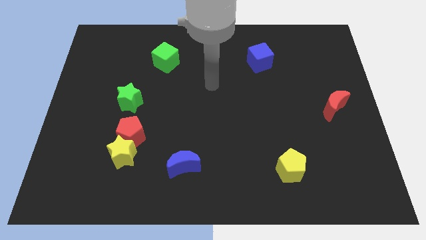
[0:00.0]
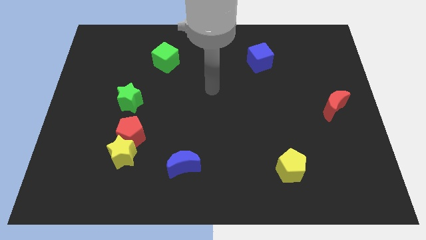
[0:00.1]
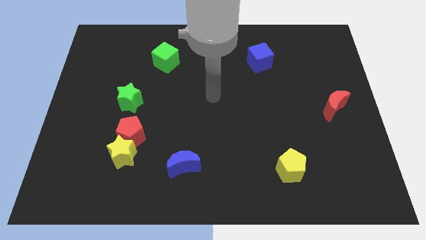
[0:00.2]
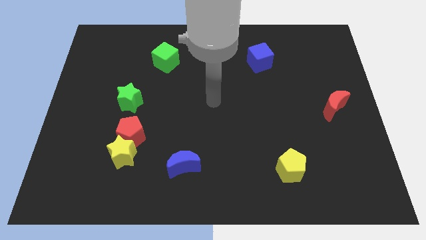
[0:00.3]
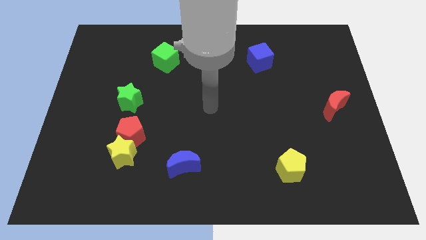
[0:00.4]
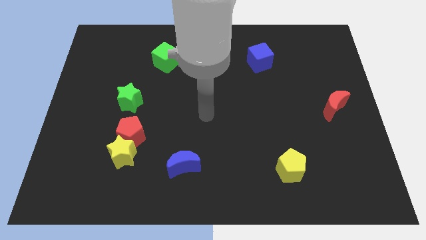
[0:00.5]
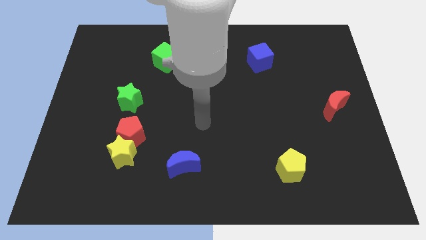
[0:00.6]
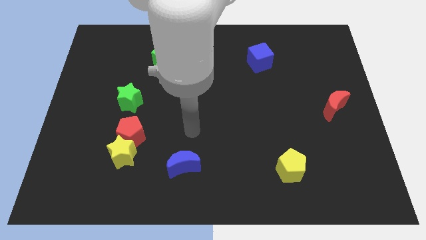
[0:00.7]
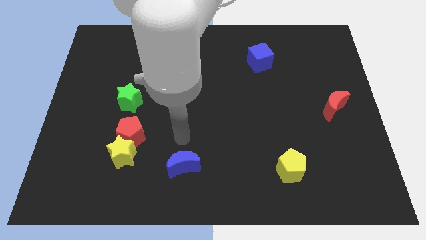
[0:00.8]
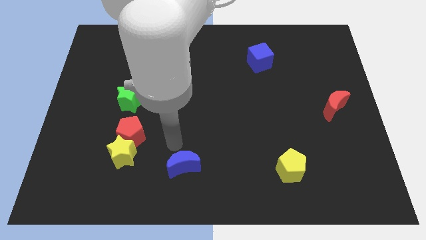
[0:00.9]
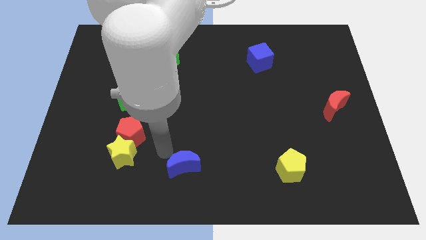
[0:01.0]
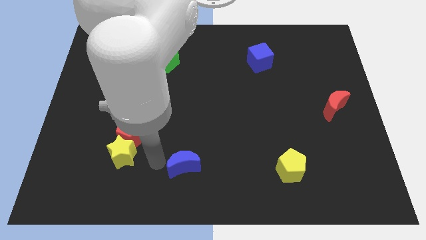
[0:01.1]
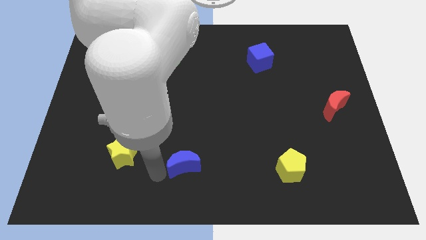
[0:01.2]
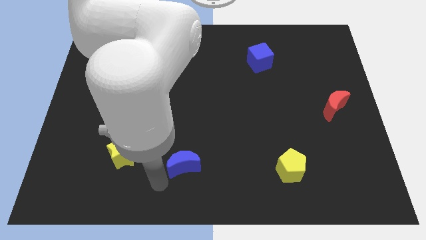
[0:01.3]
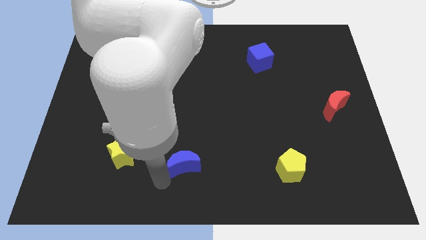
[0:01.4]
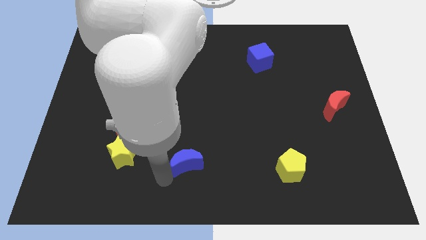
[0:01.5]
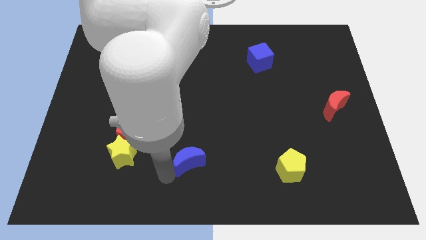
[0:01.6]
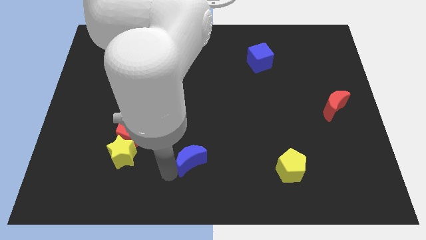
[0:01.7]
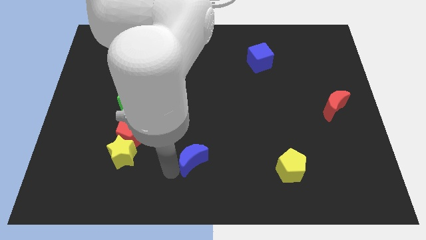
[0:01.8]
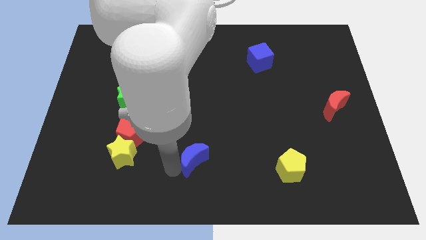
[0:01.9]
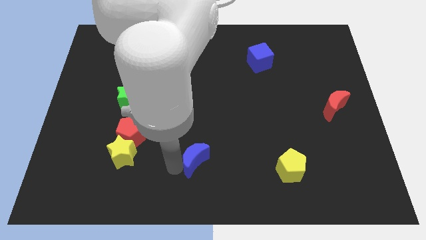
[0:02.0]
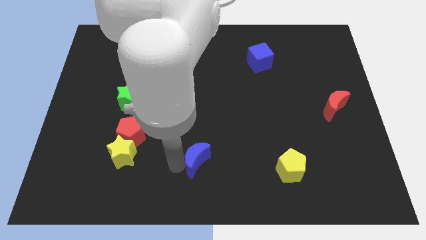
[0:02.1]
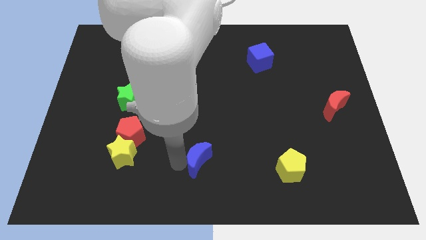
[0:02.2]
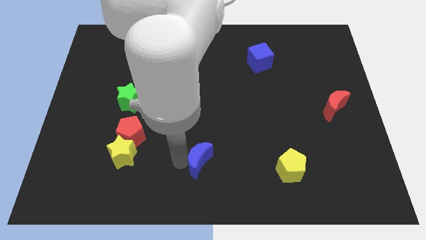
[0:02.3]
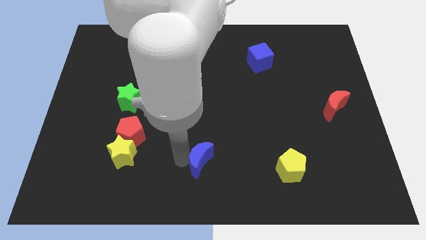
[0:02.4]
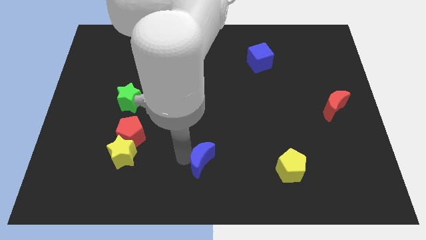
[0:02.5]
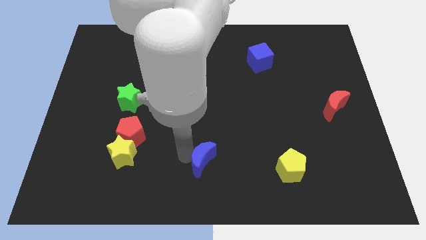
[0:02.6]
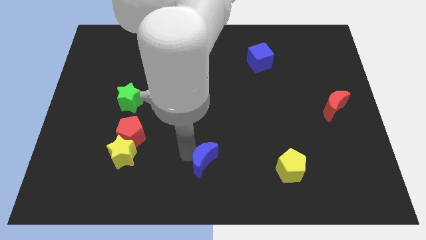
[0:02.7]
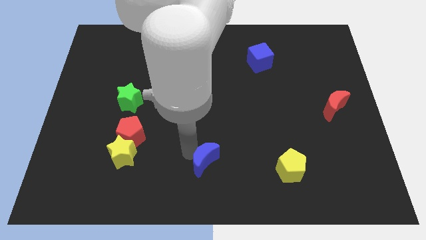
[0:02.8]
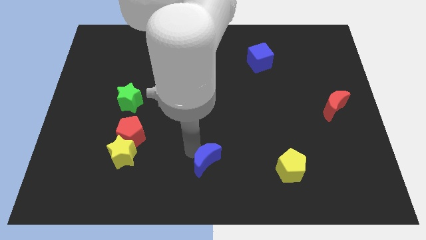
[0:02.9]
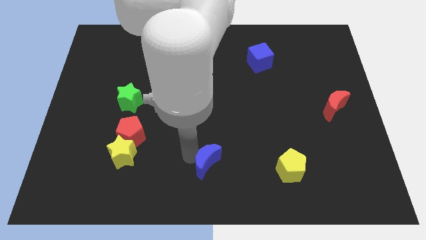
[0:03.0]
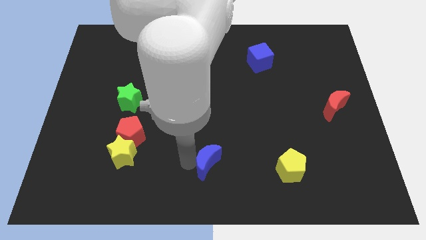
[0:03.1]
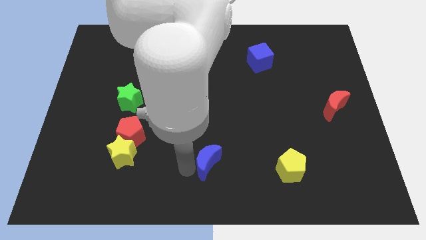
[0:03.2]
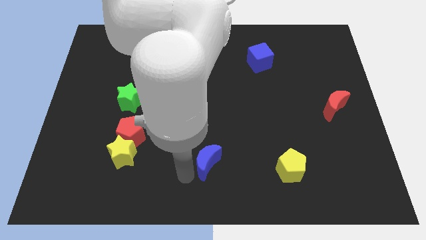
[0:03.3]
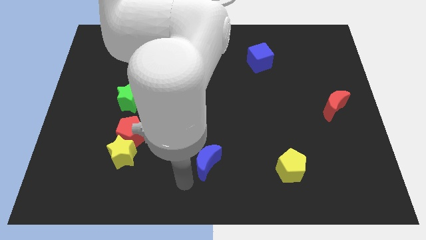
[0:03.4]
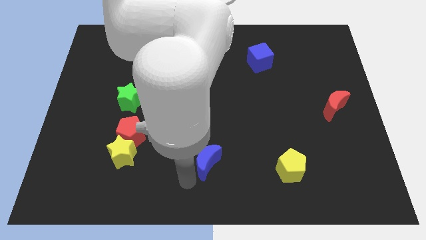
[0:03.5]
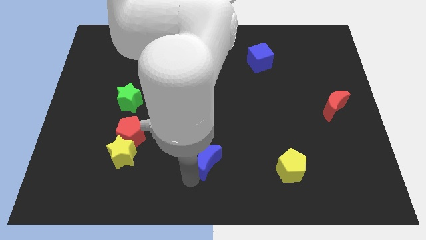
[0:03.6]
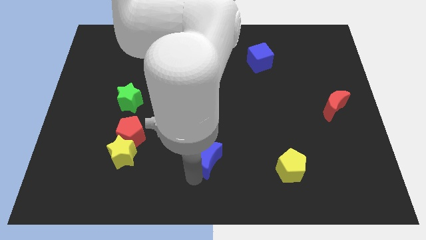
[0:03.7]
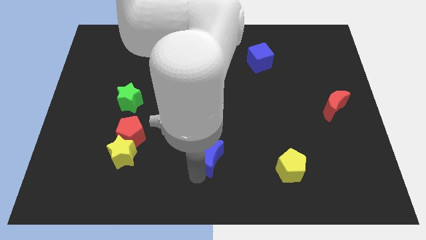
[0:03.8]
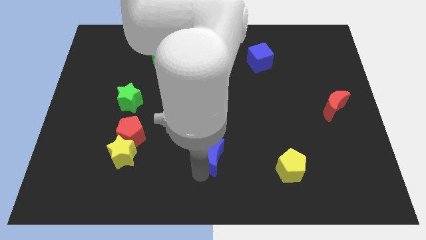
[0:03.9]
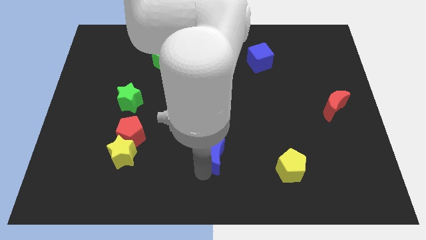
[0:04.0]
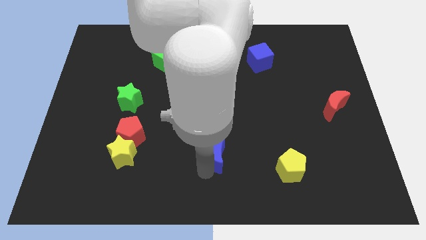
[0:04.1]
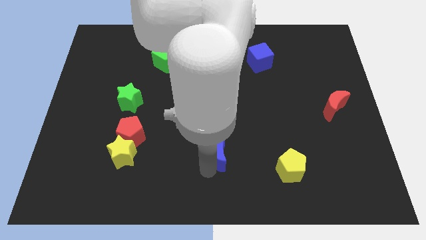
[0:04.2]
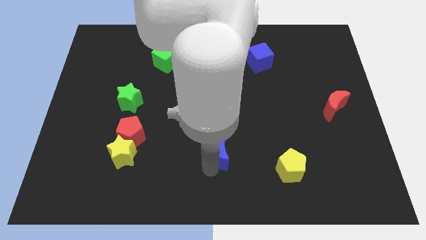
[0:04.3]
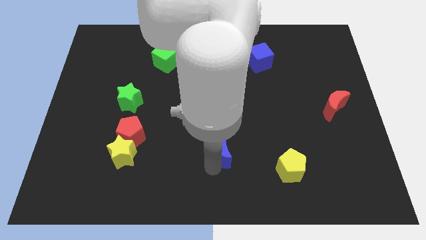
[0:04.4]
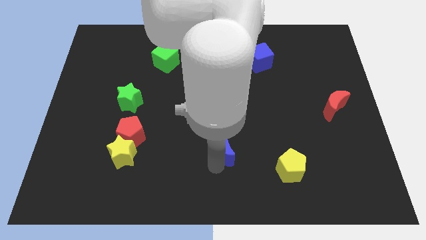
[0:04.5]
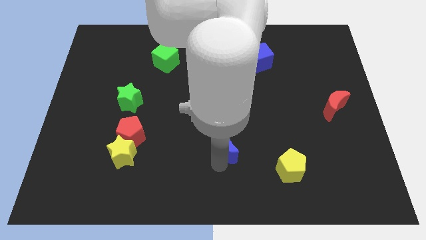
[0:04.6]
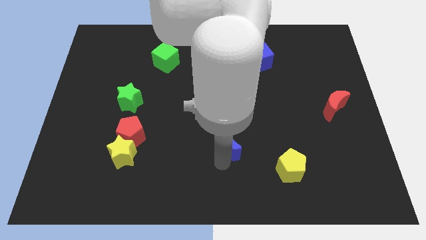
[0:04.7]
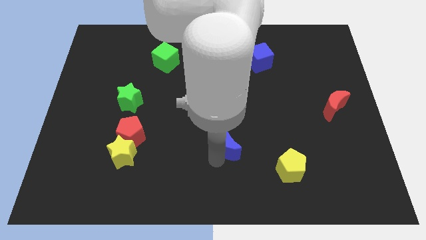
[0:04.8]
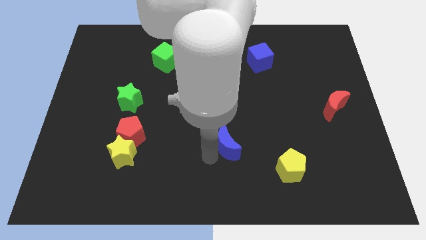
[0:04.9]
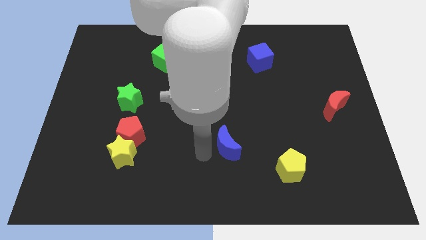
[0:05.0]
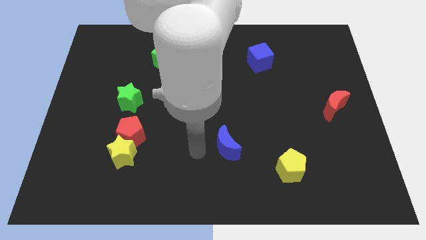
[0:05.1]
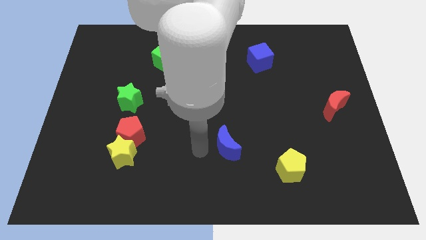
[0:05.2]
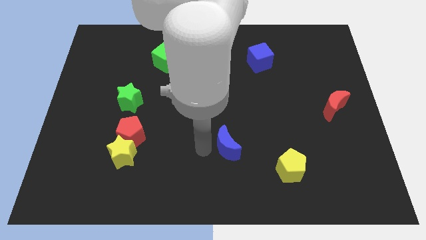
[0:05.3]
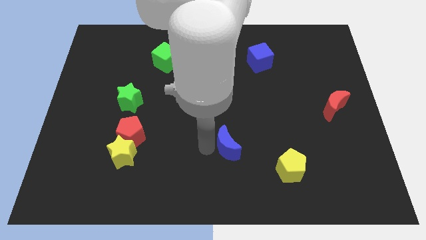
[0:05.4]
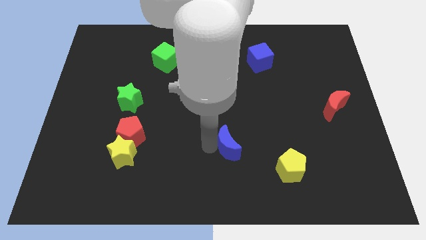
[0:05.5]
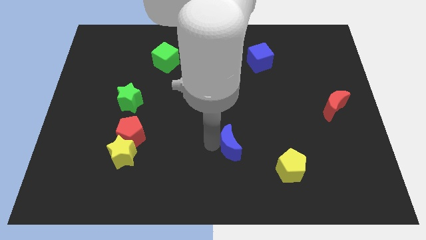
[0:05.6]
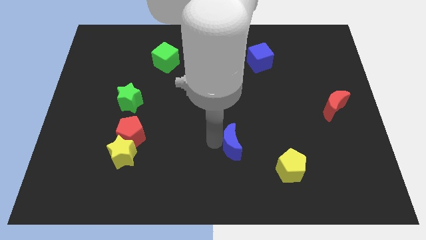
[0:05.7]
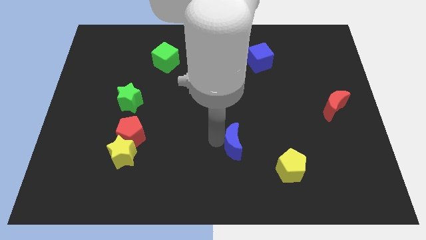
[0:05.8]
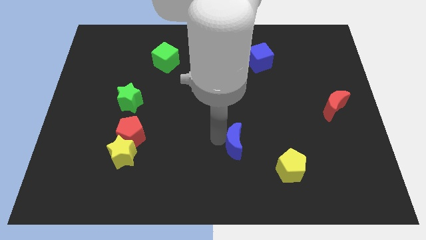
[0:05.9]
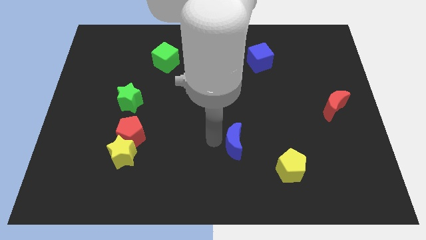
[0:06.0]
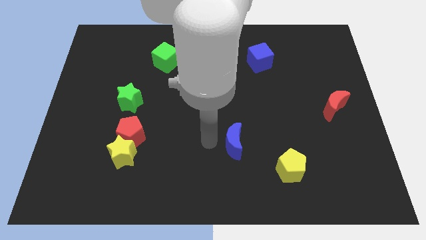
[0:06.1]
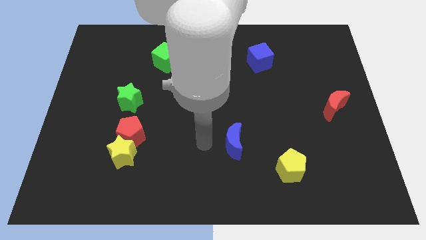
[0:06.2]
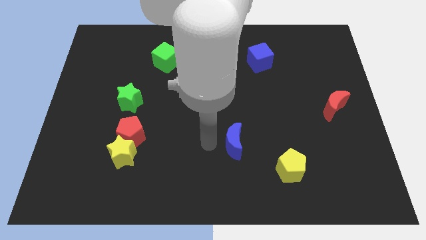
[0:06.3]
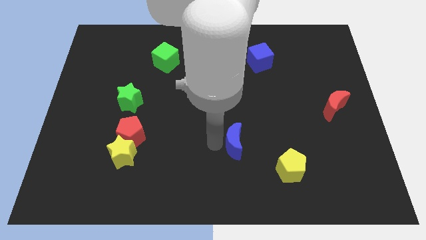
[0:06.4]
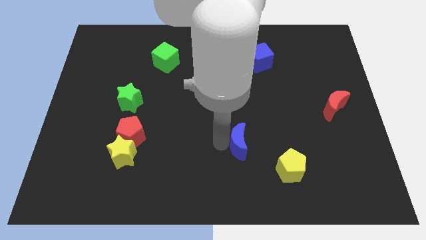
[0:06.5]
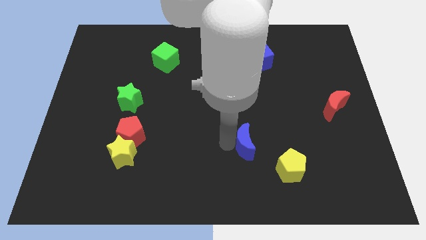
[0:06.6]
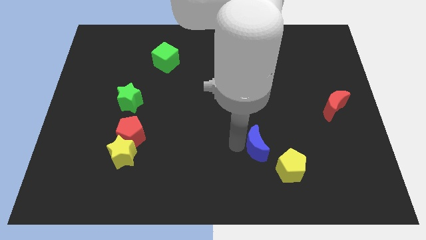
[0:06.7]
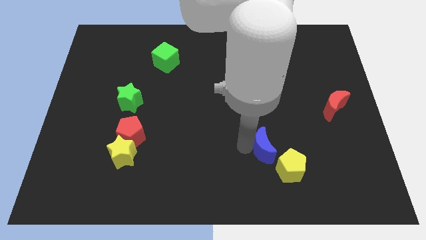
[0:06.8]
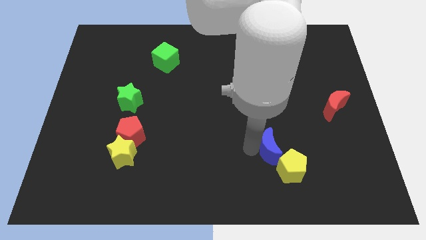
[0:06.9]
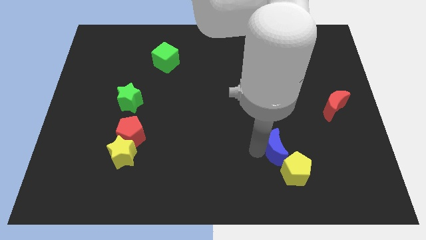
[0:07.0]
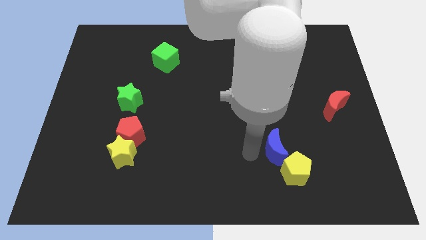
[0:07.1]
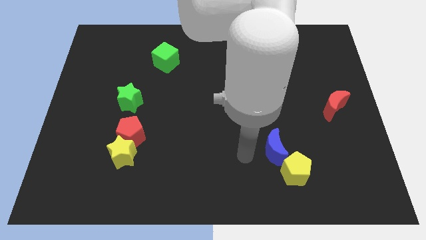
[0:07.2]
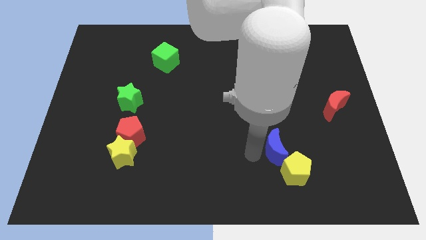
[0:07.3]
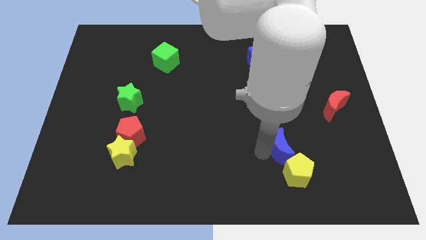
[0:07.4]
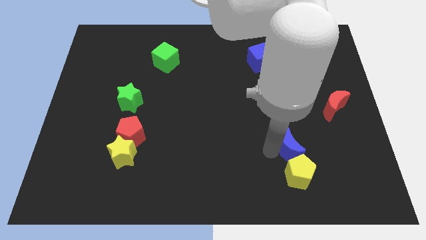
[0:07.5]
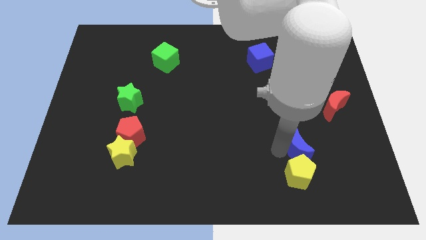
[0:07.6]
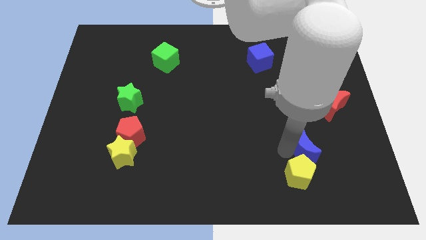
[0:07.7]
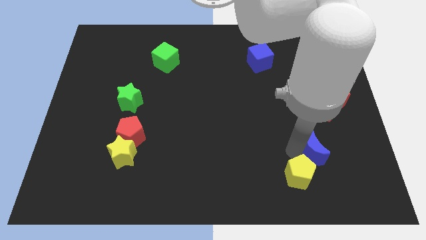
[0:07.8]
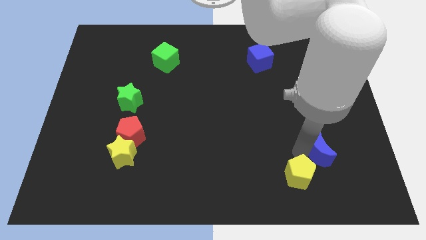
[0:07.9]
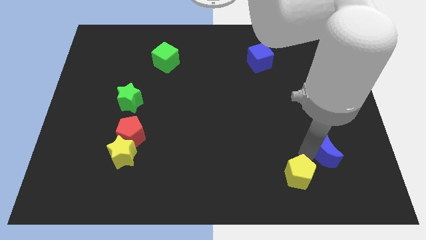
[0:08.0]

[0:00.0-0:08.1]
push the blue moon below the red moon
